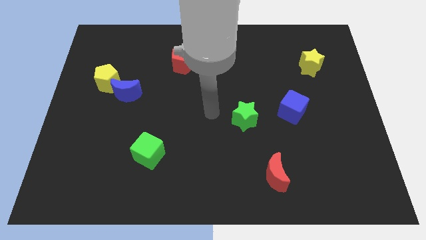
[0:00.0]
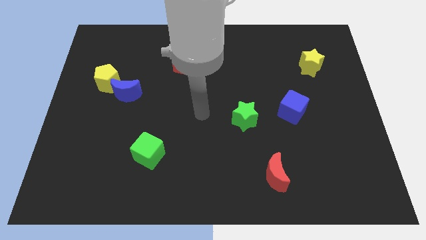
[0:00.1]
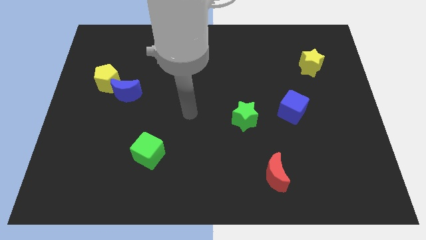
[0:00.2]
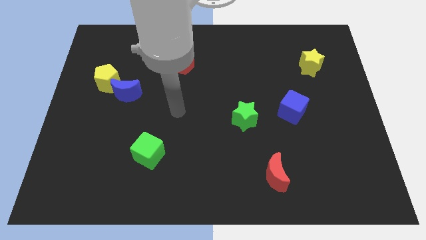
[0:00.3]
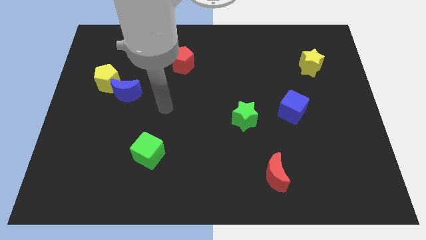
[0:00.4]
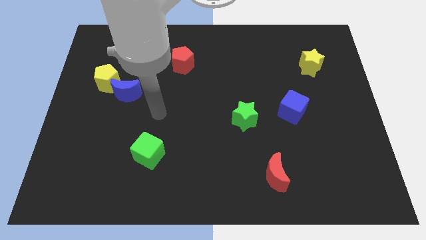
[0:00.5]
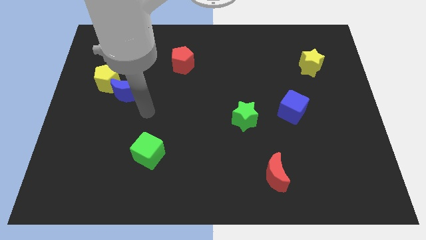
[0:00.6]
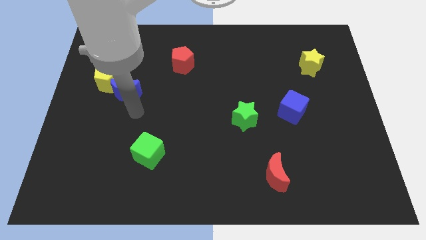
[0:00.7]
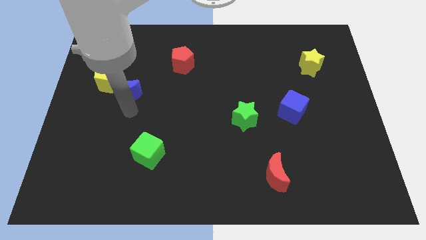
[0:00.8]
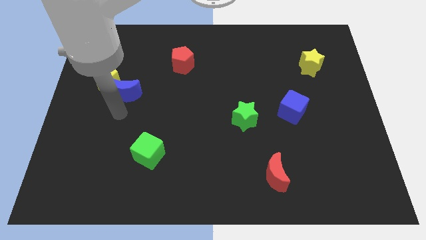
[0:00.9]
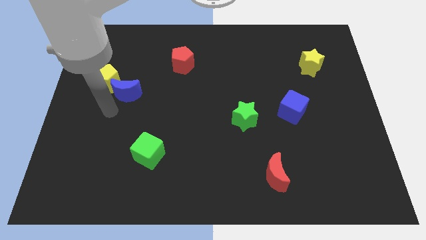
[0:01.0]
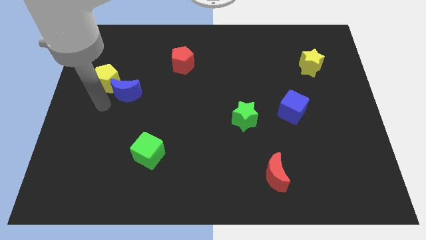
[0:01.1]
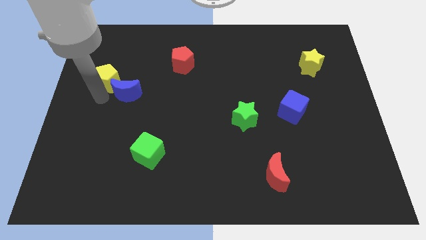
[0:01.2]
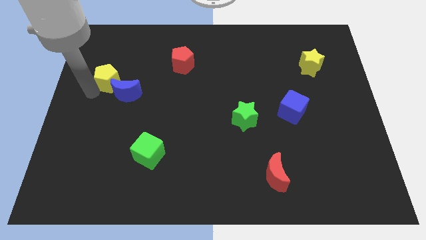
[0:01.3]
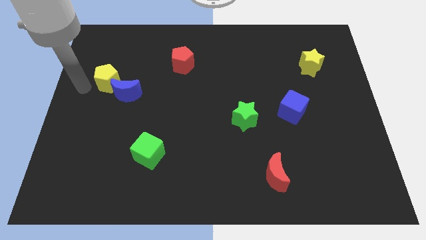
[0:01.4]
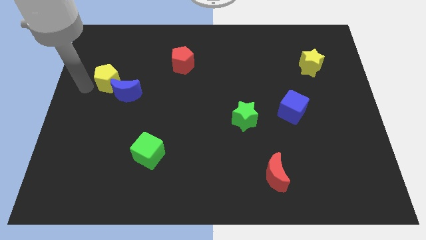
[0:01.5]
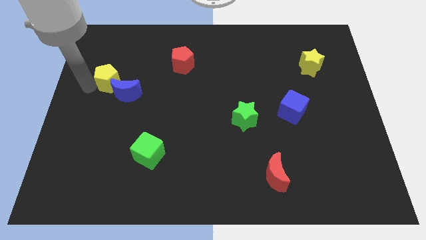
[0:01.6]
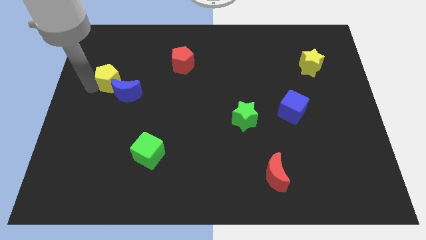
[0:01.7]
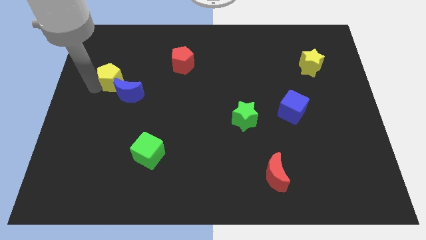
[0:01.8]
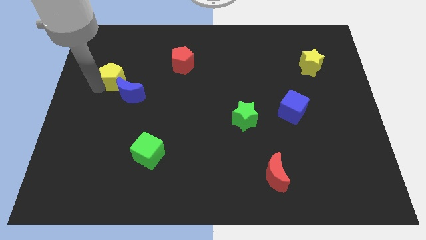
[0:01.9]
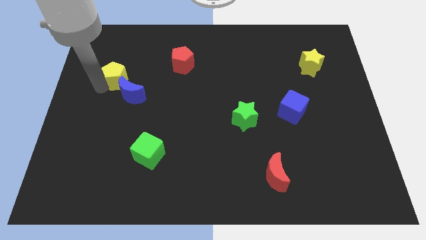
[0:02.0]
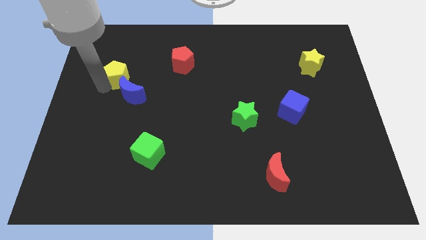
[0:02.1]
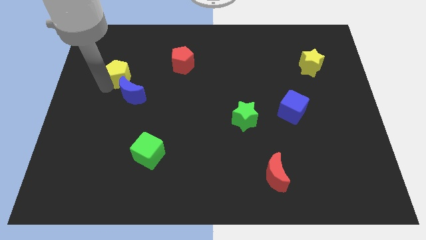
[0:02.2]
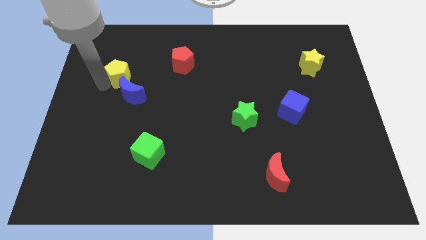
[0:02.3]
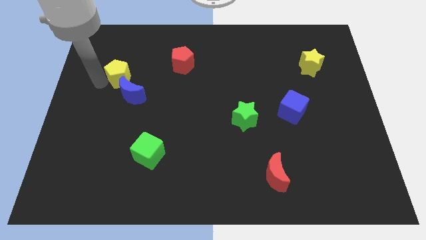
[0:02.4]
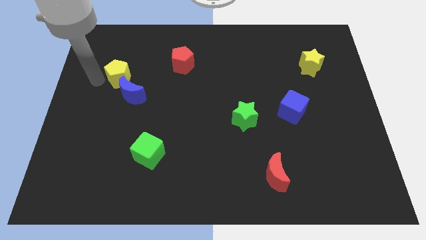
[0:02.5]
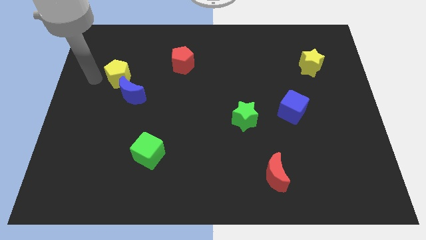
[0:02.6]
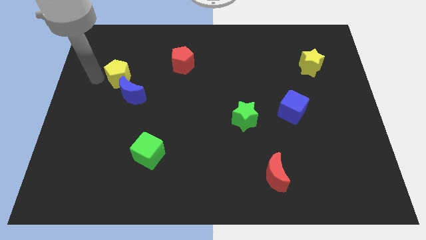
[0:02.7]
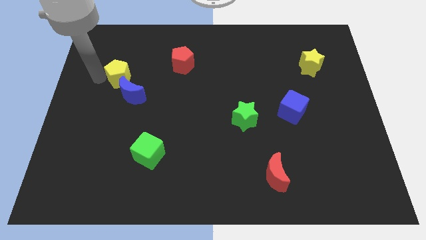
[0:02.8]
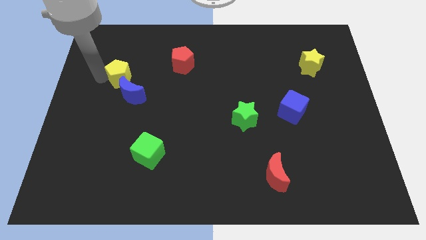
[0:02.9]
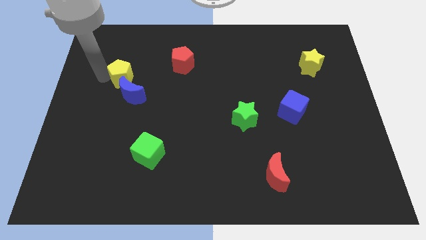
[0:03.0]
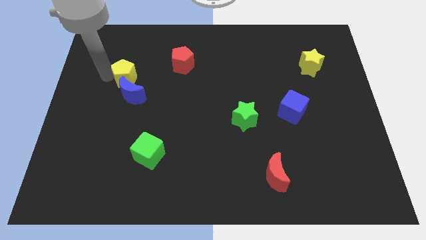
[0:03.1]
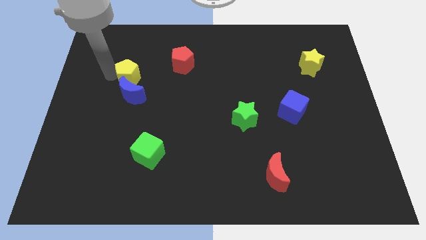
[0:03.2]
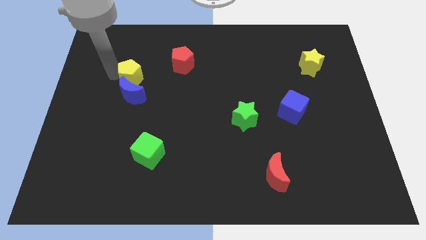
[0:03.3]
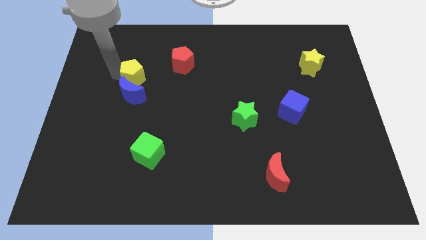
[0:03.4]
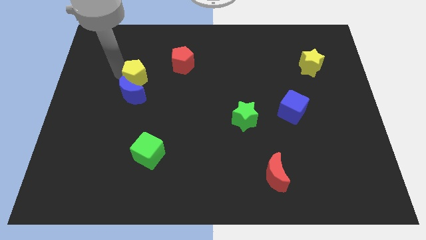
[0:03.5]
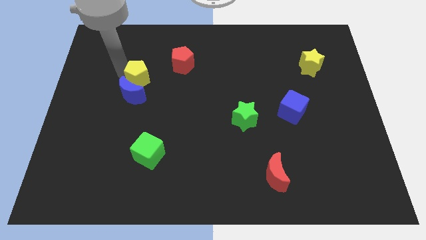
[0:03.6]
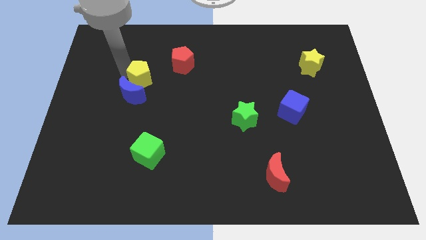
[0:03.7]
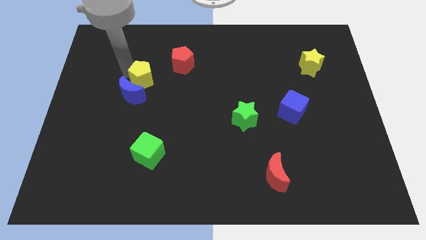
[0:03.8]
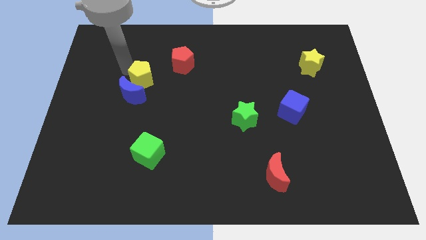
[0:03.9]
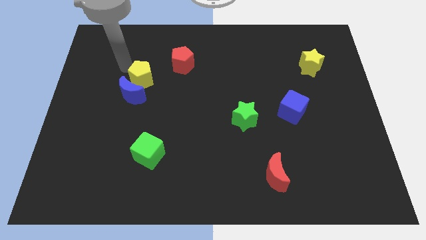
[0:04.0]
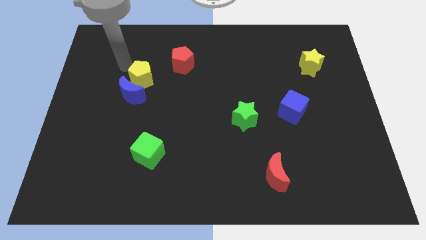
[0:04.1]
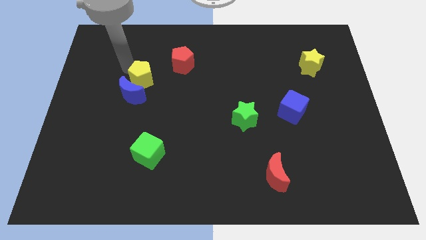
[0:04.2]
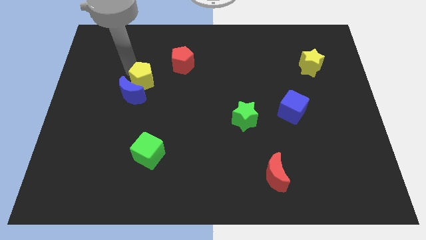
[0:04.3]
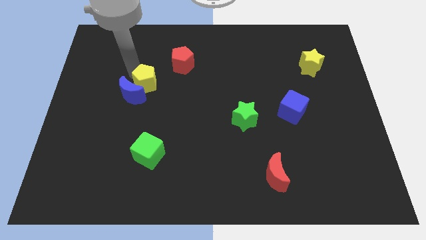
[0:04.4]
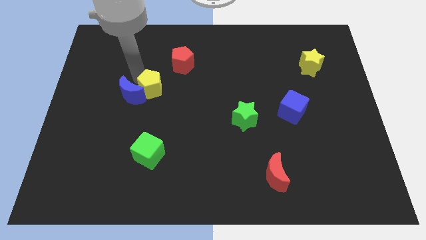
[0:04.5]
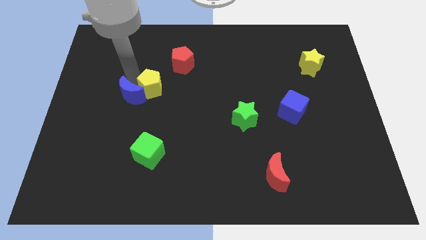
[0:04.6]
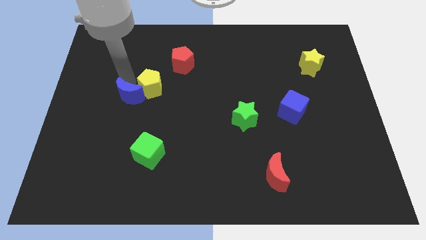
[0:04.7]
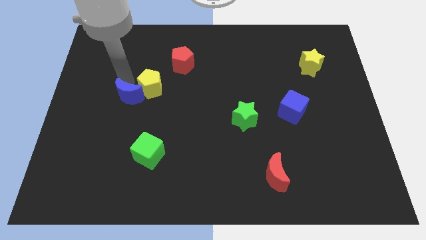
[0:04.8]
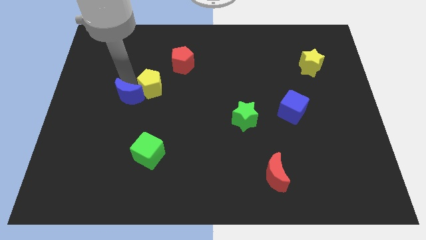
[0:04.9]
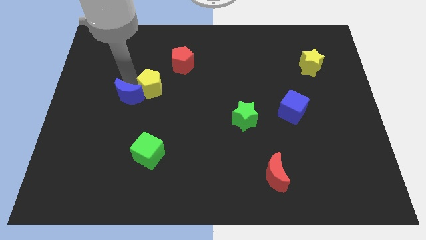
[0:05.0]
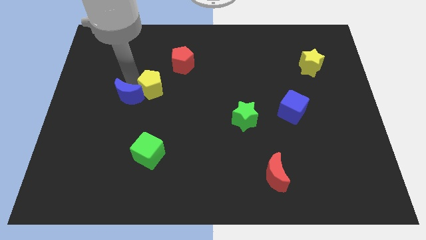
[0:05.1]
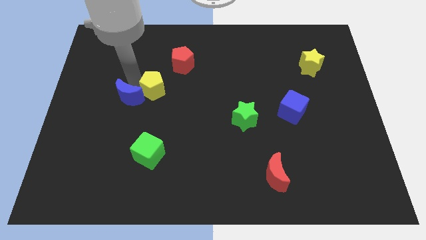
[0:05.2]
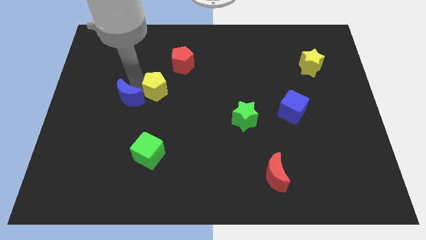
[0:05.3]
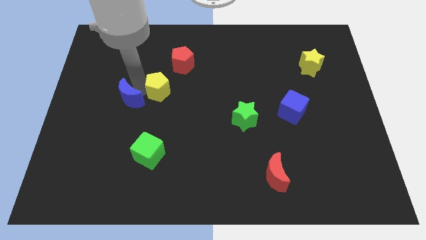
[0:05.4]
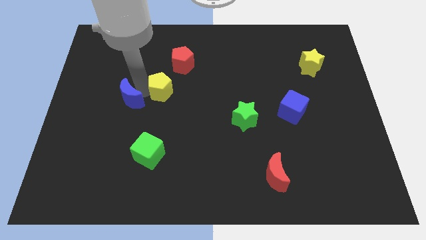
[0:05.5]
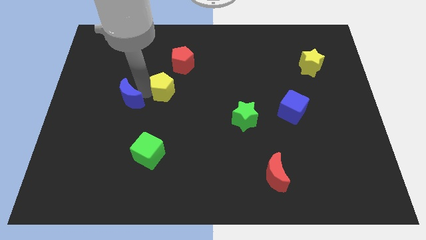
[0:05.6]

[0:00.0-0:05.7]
push the yellow pentagon to the center of the board

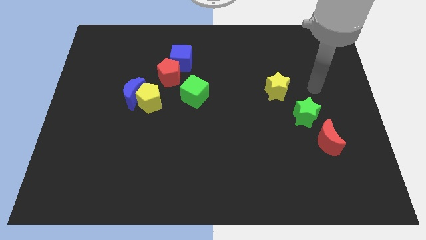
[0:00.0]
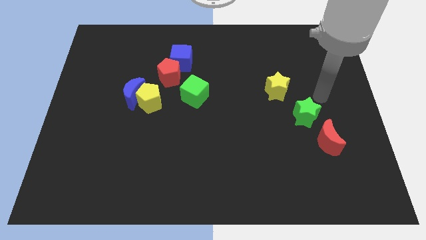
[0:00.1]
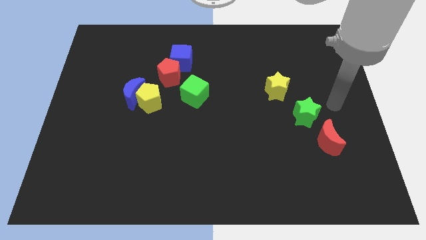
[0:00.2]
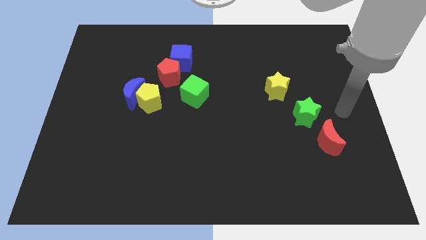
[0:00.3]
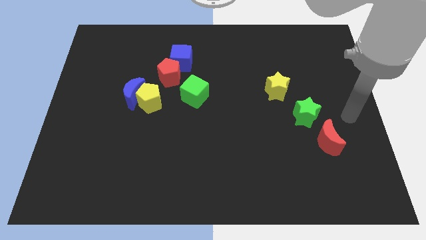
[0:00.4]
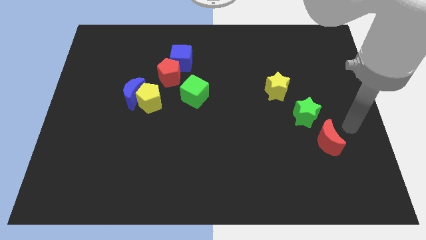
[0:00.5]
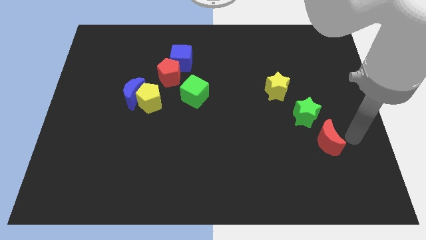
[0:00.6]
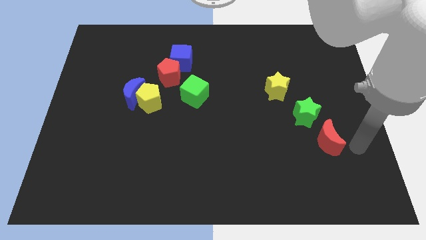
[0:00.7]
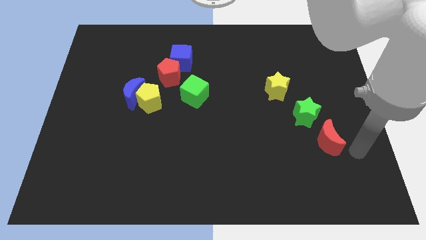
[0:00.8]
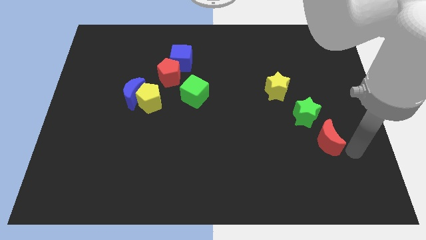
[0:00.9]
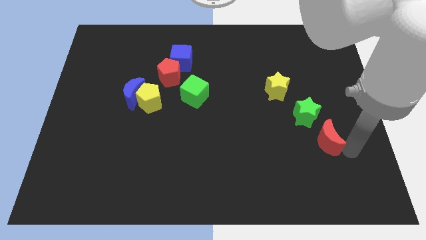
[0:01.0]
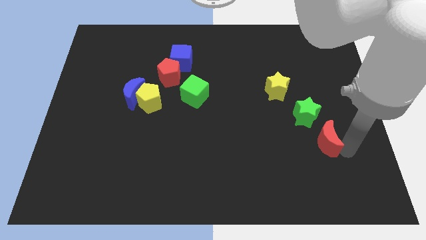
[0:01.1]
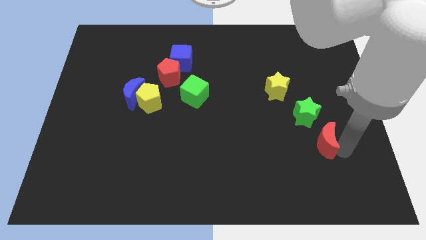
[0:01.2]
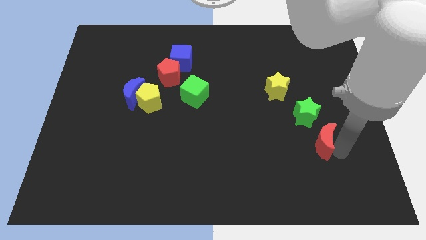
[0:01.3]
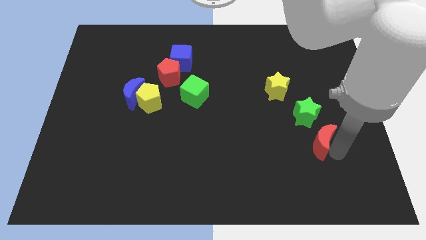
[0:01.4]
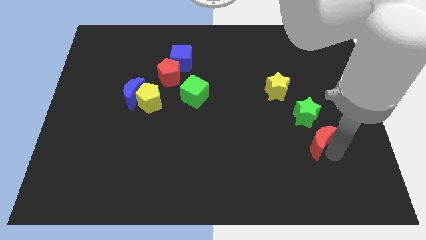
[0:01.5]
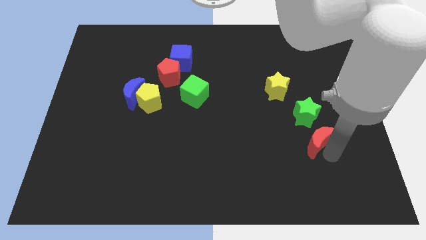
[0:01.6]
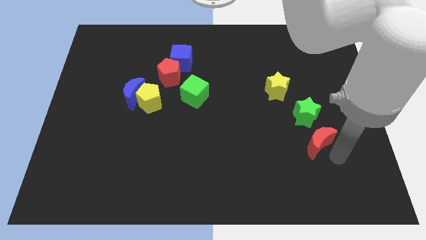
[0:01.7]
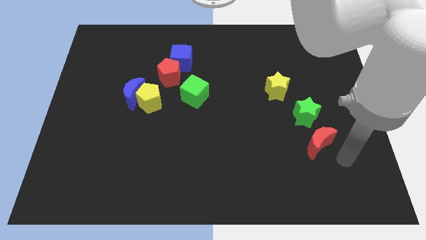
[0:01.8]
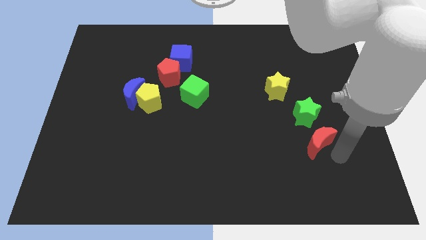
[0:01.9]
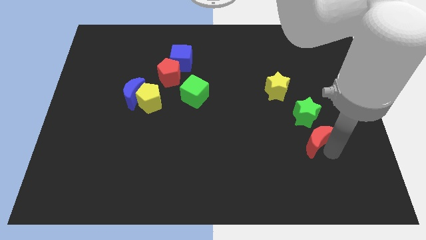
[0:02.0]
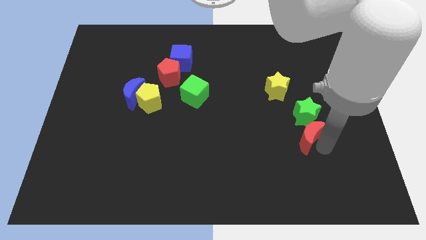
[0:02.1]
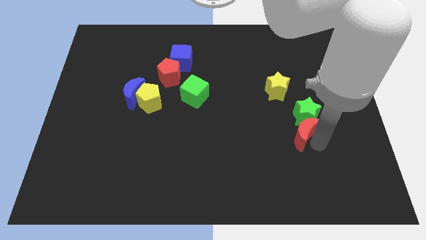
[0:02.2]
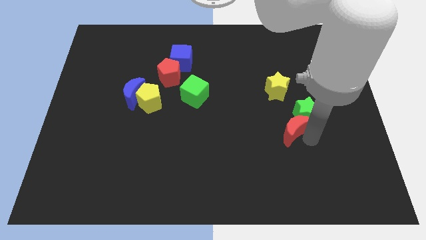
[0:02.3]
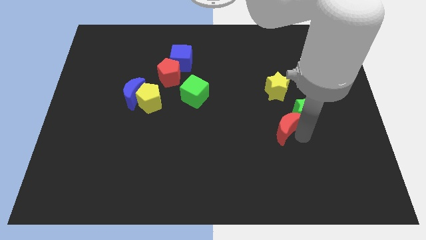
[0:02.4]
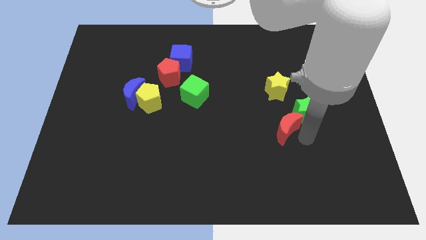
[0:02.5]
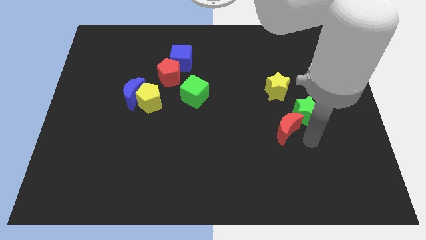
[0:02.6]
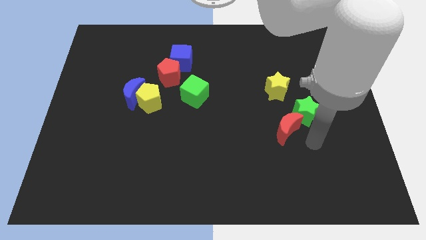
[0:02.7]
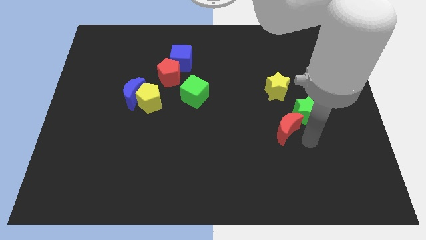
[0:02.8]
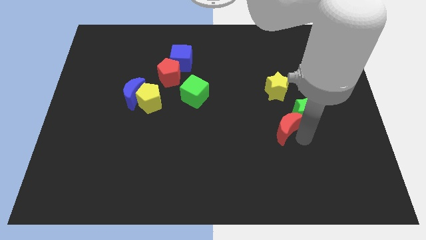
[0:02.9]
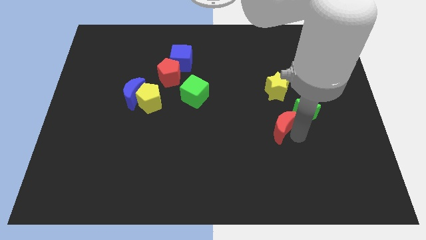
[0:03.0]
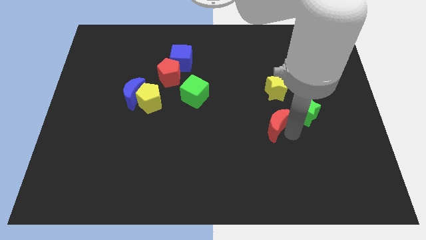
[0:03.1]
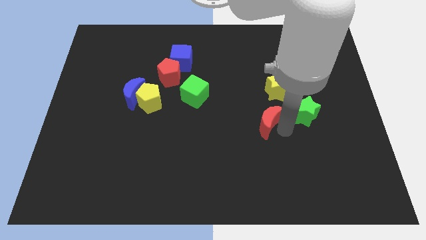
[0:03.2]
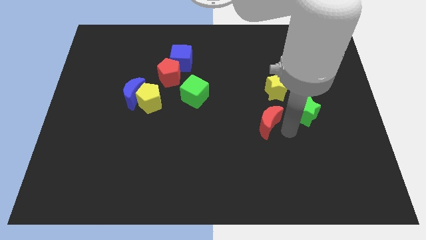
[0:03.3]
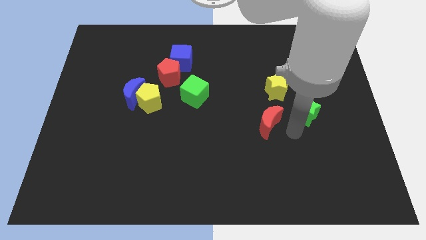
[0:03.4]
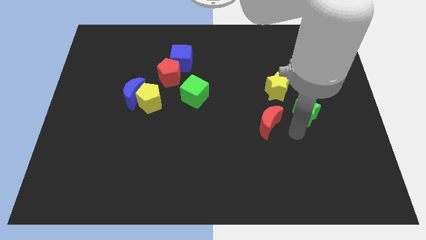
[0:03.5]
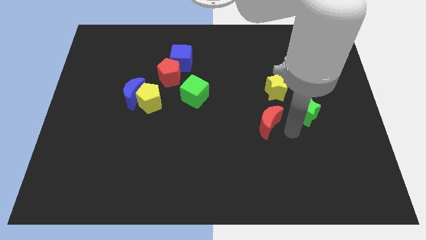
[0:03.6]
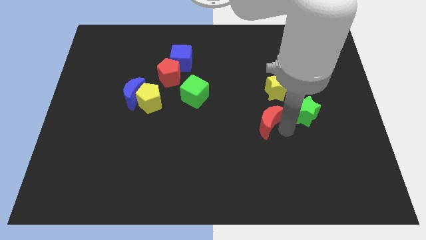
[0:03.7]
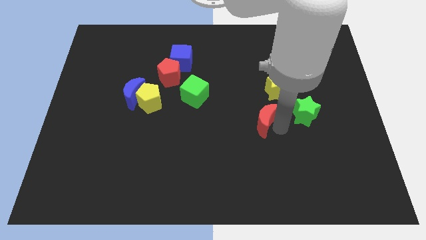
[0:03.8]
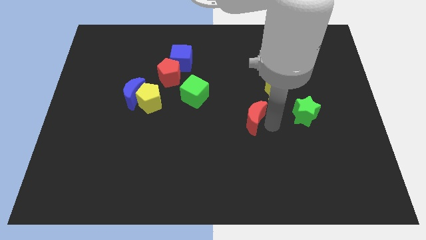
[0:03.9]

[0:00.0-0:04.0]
move the red moon to the middle of the board
